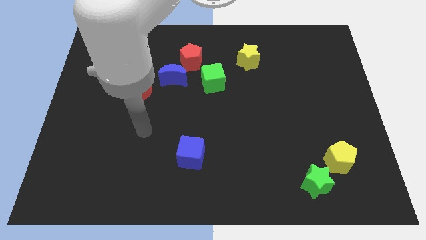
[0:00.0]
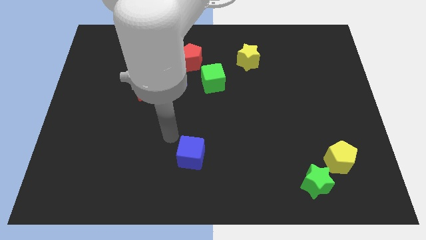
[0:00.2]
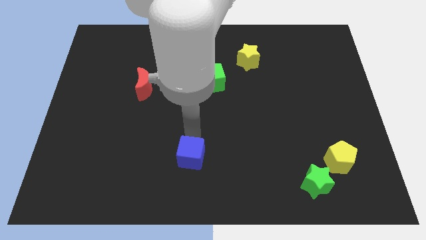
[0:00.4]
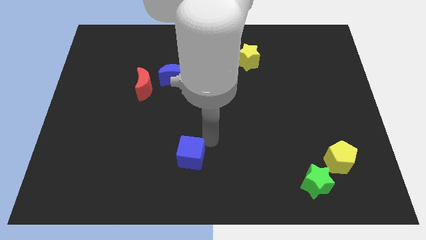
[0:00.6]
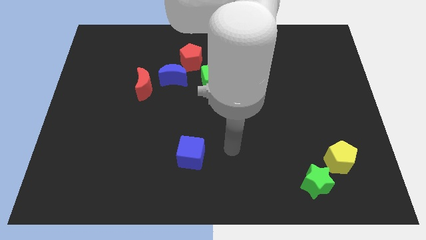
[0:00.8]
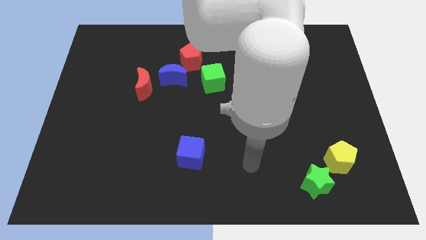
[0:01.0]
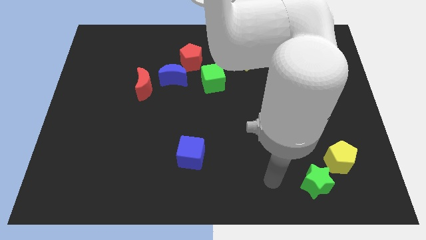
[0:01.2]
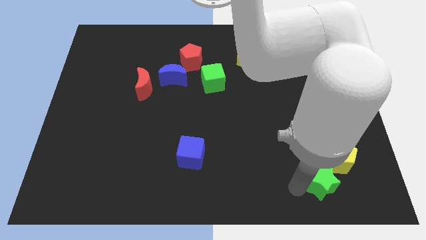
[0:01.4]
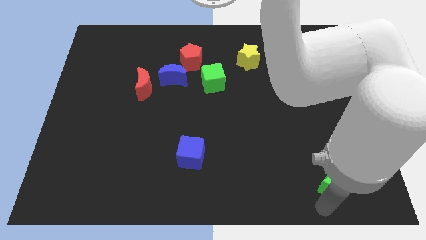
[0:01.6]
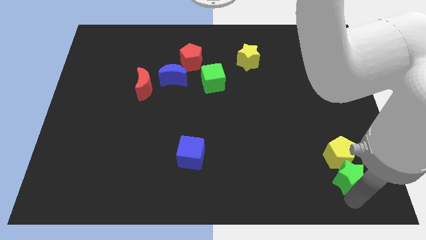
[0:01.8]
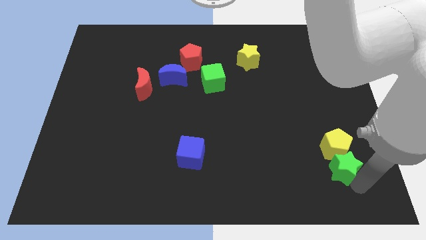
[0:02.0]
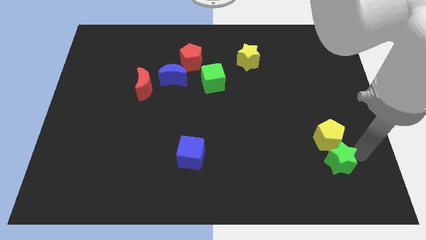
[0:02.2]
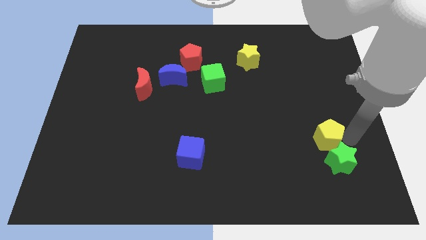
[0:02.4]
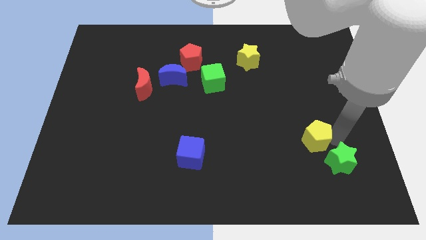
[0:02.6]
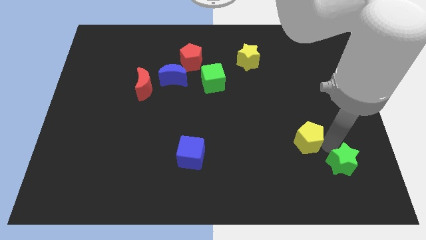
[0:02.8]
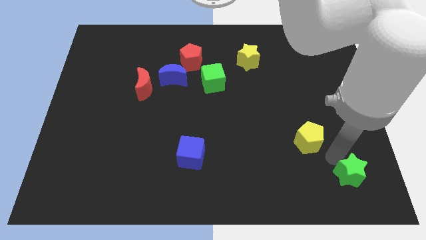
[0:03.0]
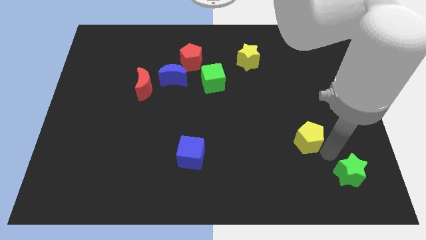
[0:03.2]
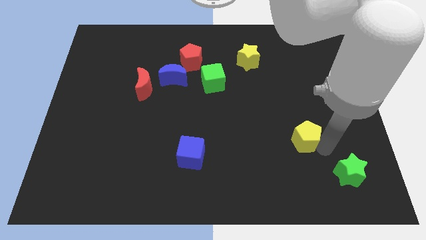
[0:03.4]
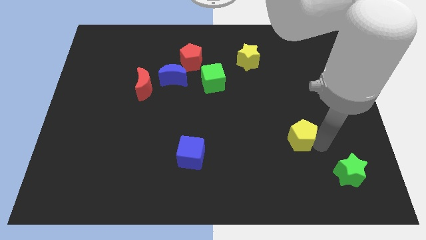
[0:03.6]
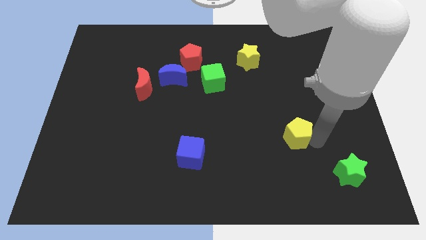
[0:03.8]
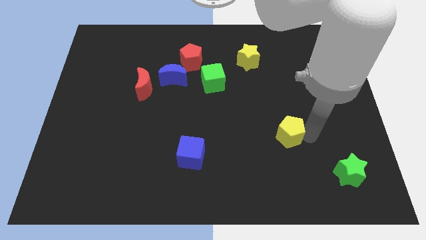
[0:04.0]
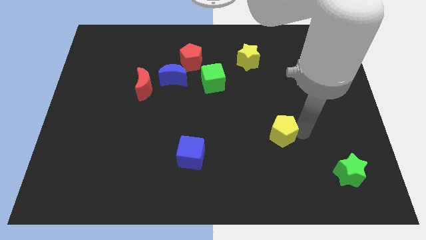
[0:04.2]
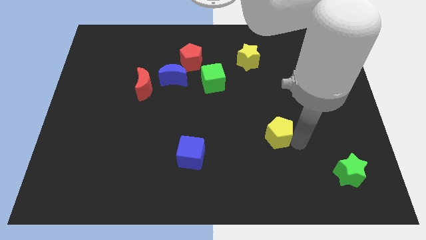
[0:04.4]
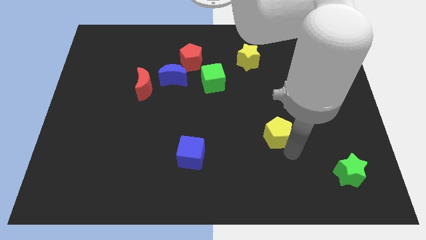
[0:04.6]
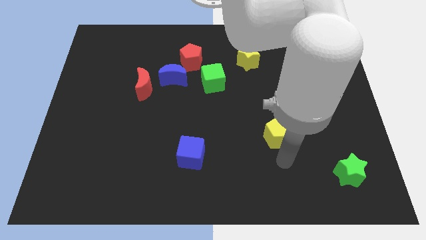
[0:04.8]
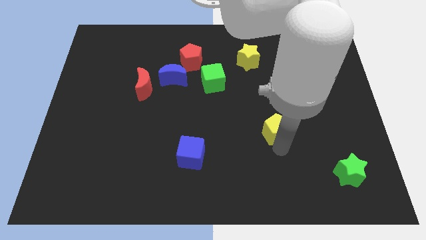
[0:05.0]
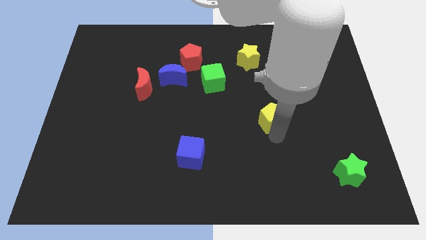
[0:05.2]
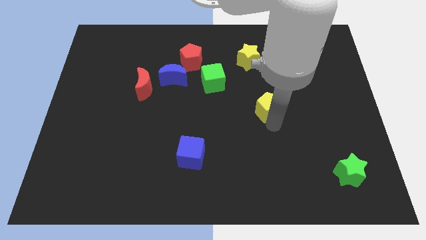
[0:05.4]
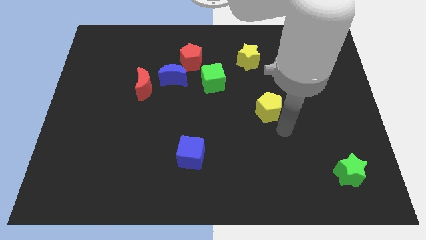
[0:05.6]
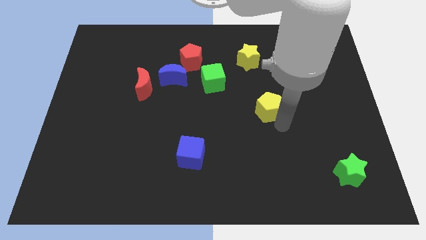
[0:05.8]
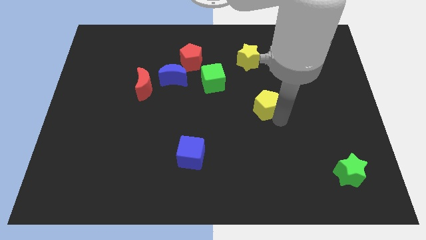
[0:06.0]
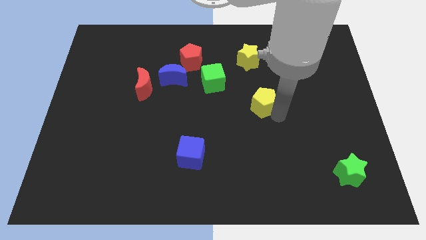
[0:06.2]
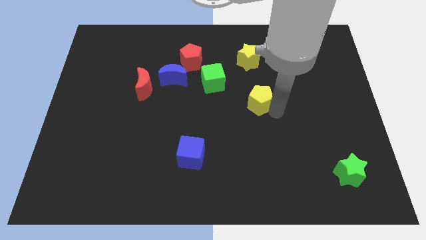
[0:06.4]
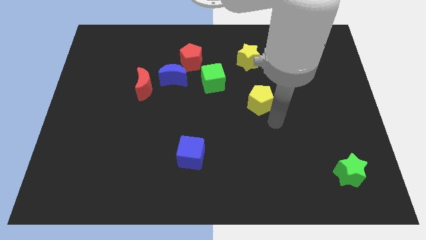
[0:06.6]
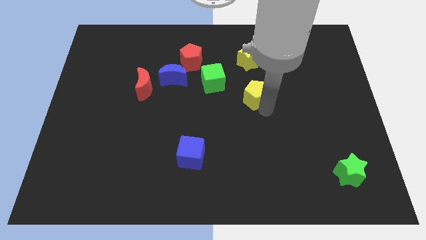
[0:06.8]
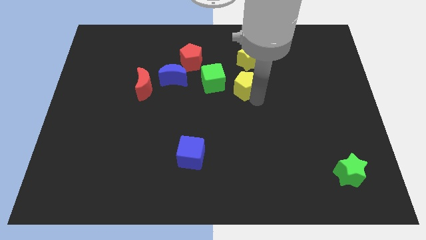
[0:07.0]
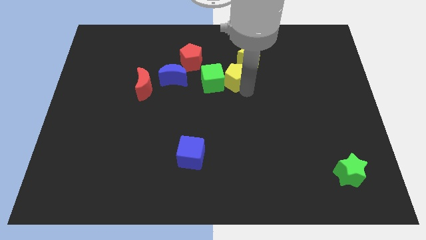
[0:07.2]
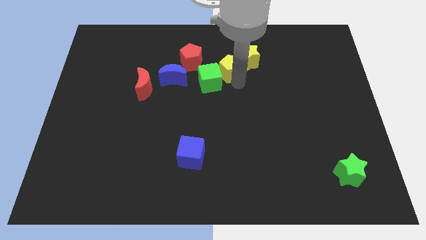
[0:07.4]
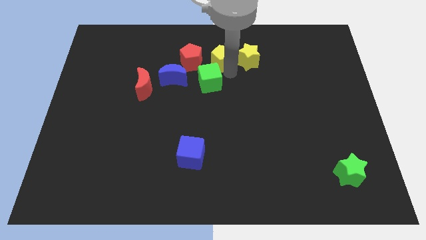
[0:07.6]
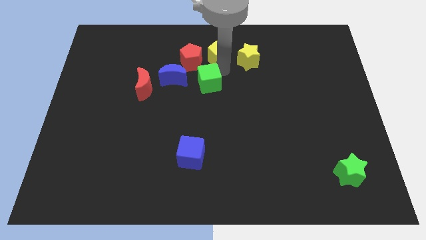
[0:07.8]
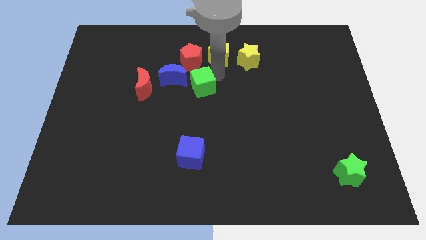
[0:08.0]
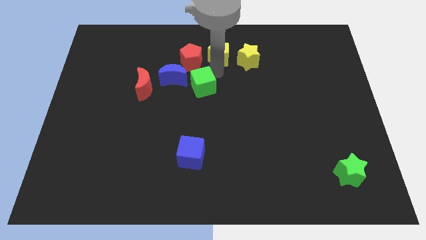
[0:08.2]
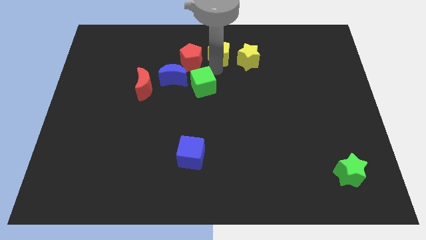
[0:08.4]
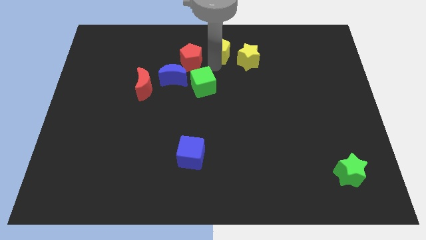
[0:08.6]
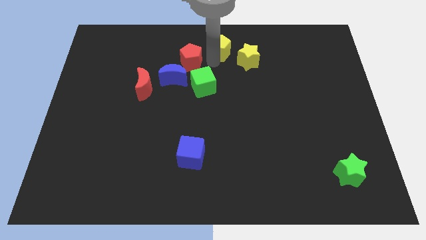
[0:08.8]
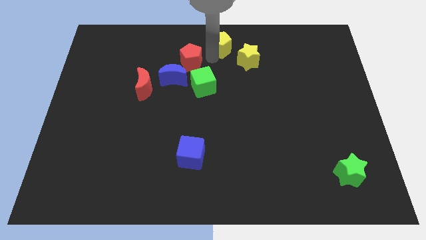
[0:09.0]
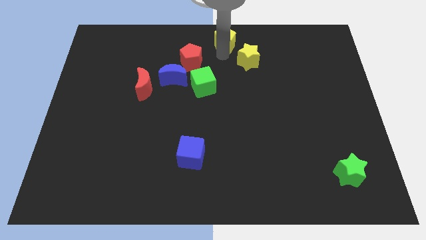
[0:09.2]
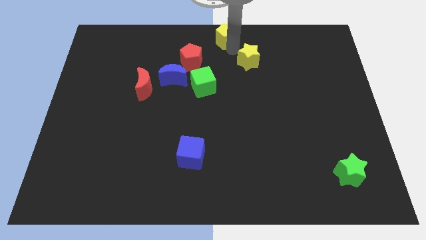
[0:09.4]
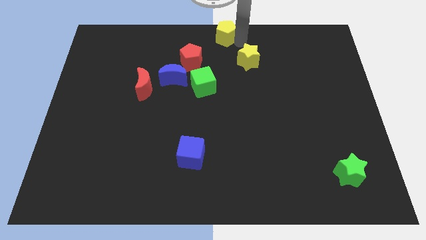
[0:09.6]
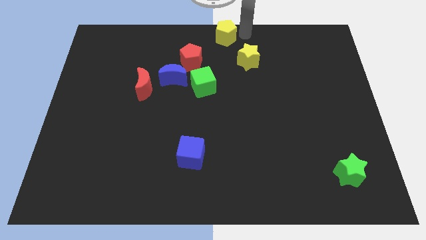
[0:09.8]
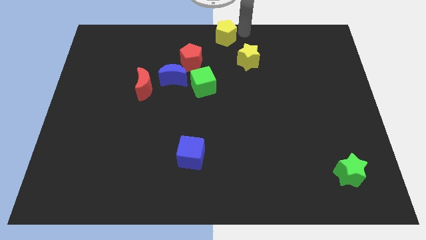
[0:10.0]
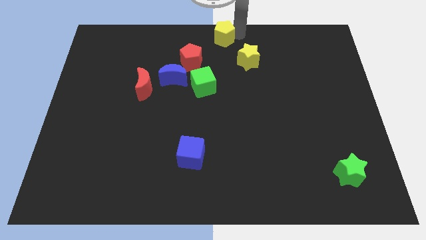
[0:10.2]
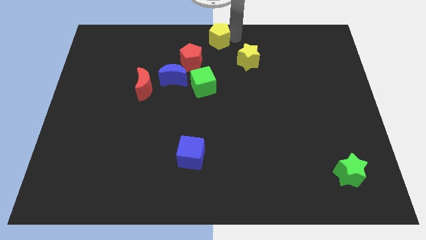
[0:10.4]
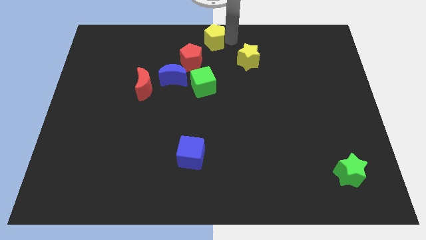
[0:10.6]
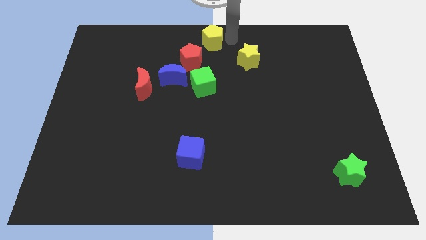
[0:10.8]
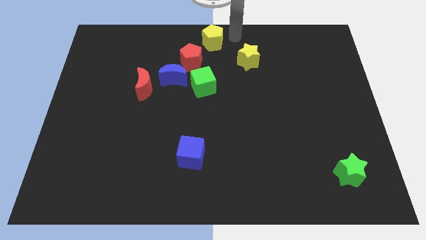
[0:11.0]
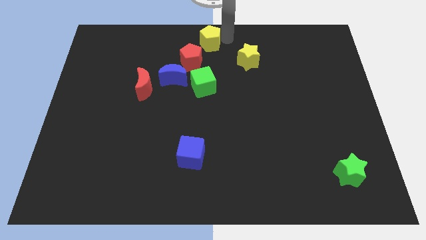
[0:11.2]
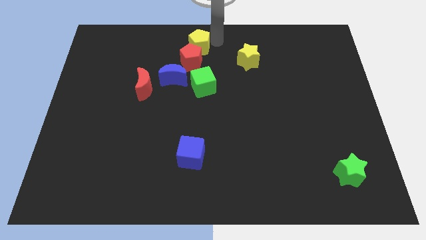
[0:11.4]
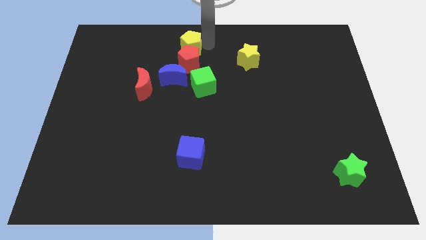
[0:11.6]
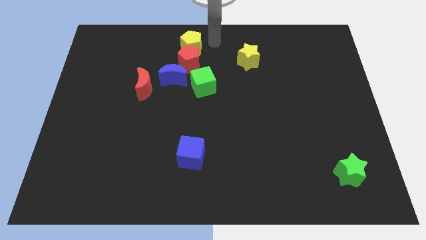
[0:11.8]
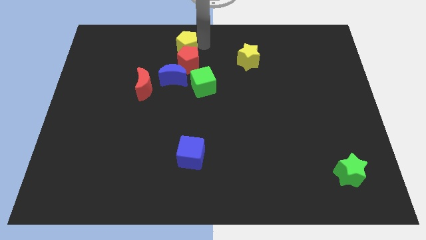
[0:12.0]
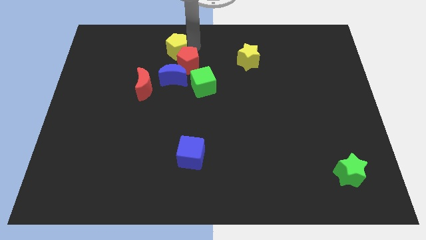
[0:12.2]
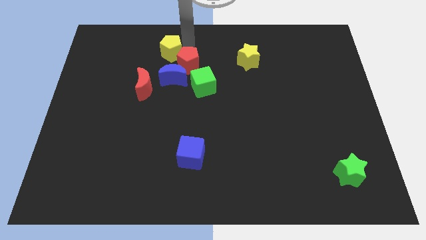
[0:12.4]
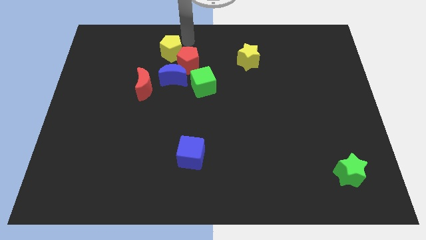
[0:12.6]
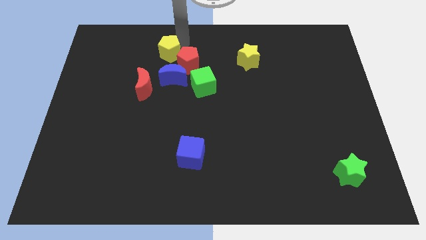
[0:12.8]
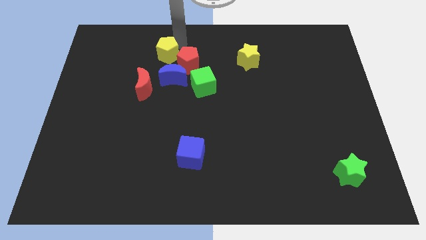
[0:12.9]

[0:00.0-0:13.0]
move the yellow pentagon diagonally up and to the left of the blue moon

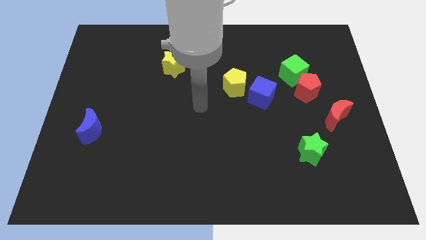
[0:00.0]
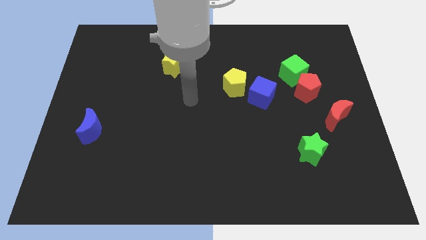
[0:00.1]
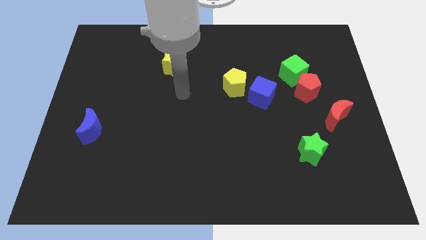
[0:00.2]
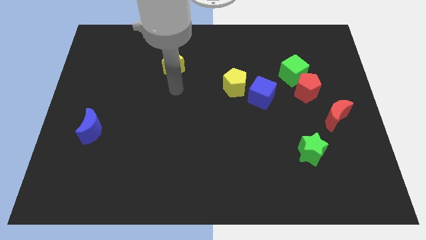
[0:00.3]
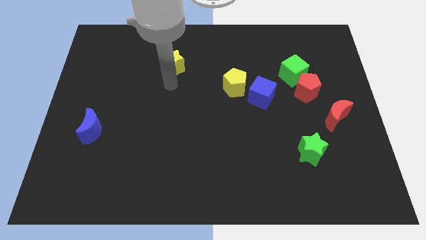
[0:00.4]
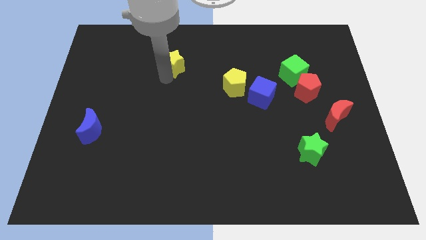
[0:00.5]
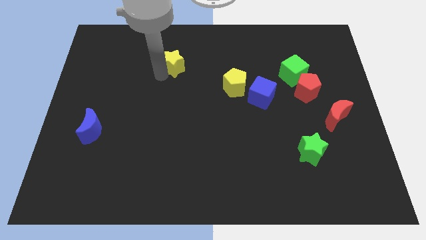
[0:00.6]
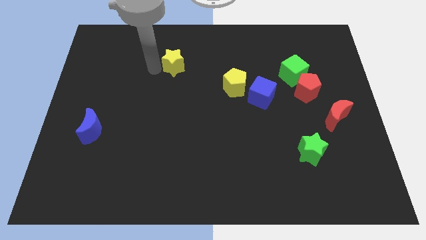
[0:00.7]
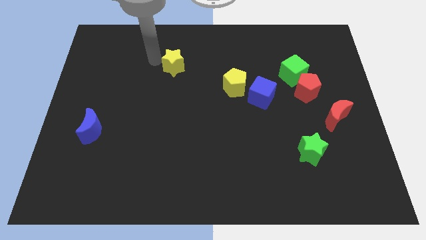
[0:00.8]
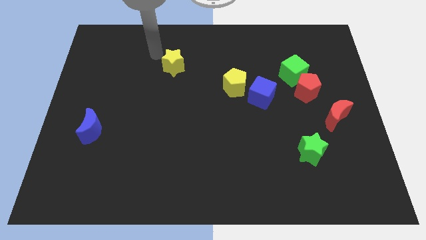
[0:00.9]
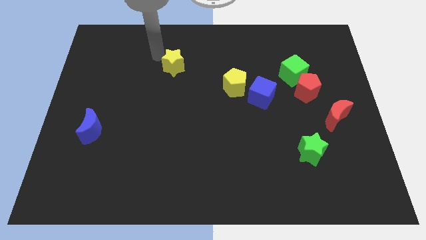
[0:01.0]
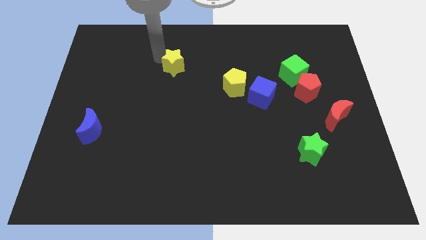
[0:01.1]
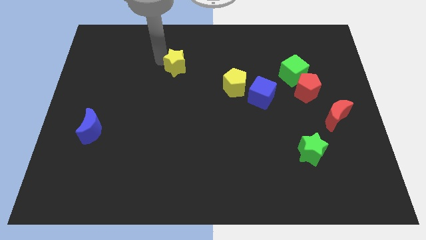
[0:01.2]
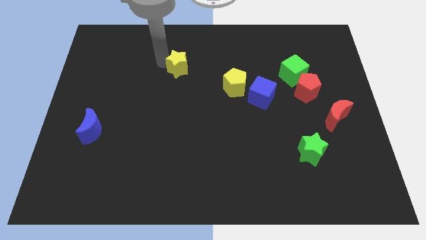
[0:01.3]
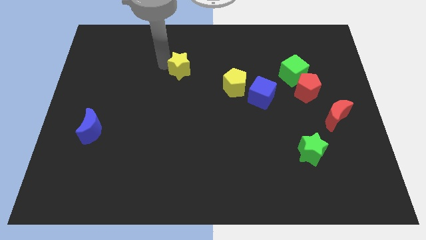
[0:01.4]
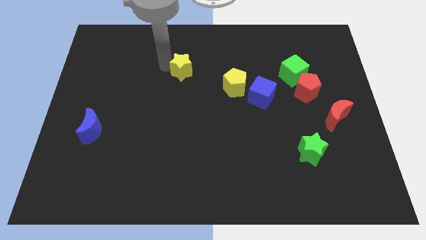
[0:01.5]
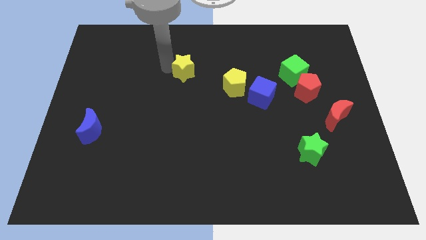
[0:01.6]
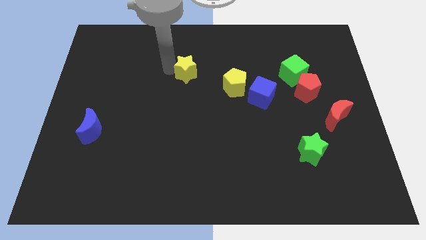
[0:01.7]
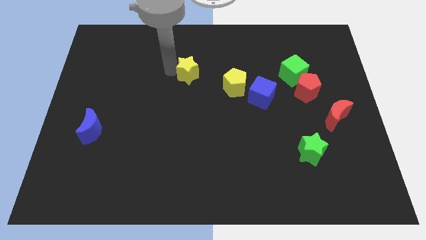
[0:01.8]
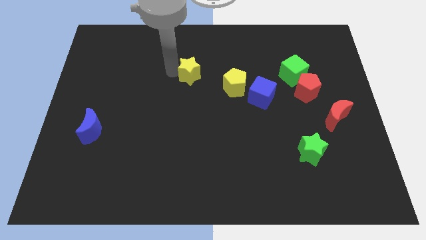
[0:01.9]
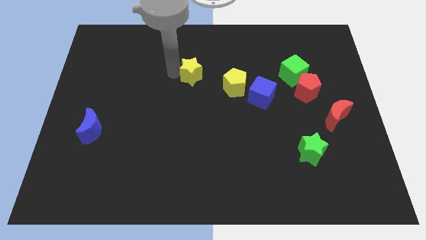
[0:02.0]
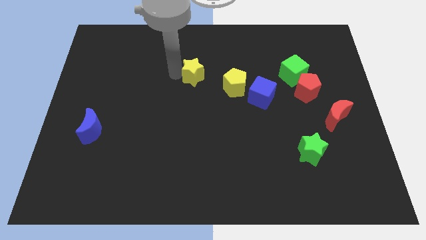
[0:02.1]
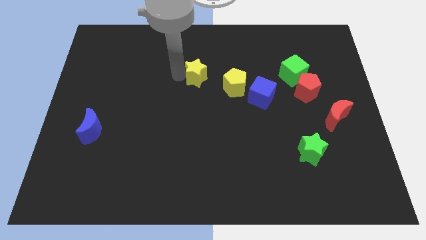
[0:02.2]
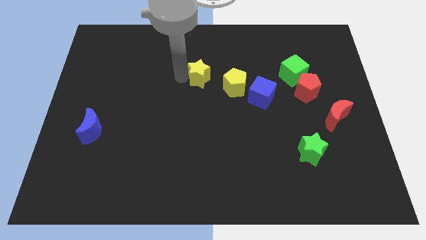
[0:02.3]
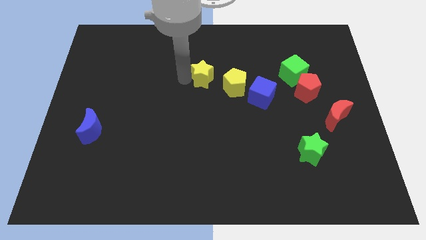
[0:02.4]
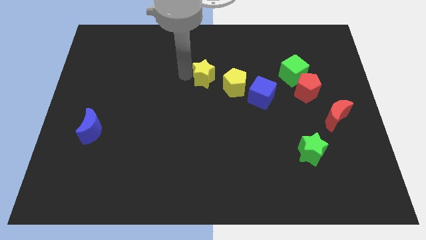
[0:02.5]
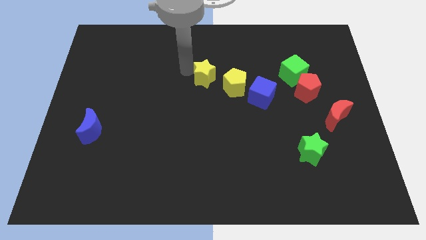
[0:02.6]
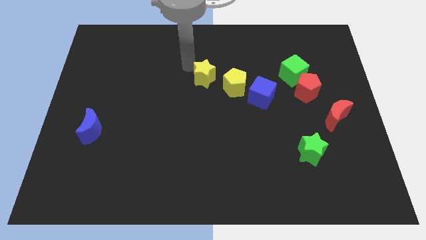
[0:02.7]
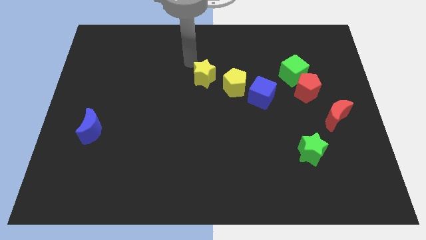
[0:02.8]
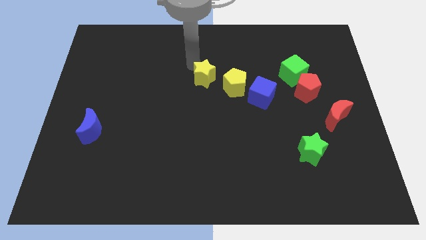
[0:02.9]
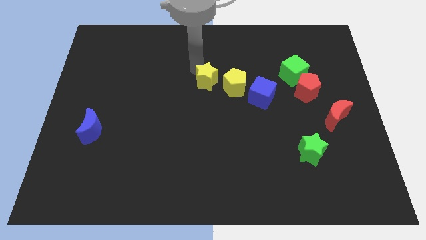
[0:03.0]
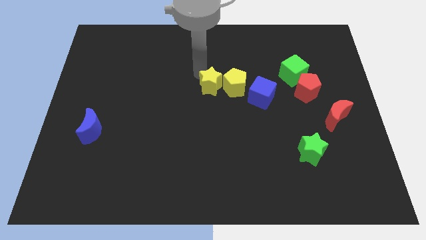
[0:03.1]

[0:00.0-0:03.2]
move the yellow star left of the blue cube
